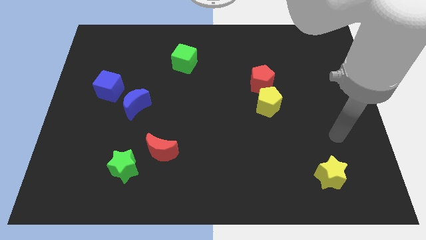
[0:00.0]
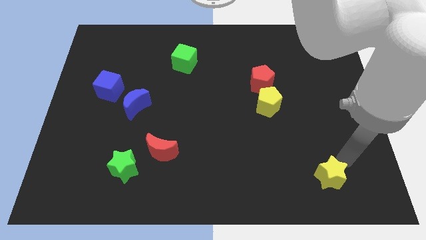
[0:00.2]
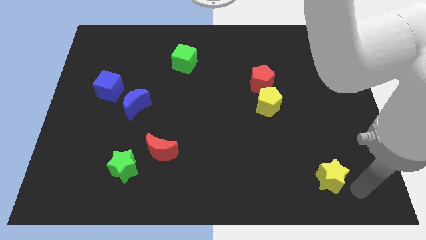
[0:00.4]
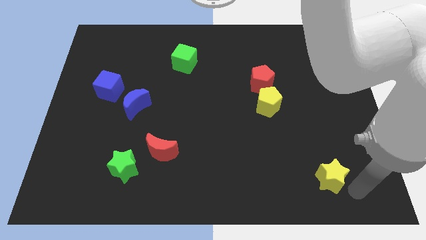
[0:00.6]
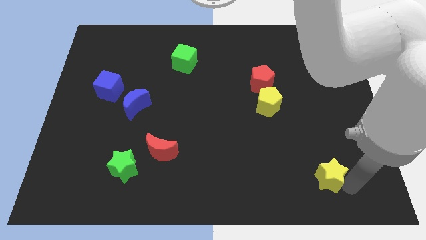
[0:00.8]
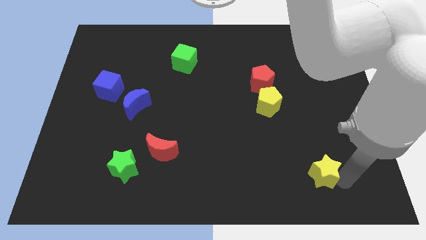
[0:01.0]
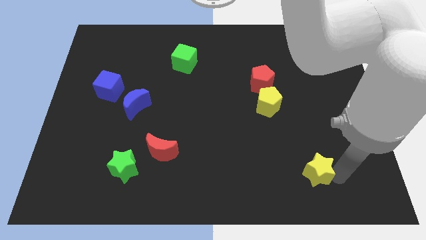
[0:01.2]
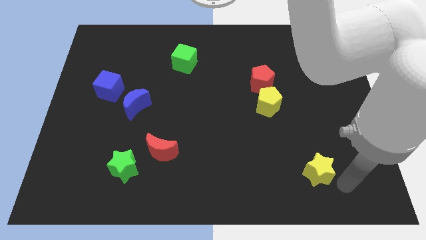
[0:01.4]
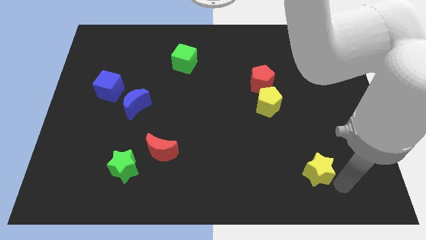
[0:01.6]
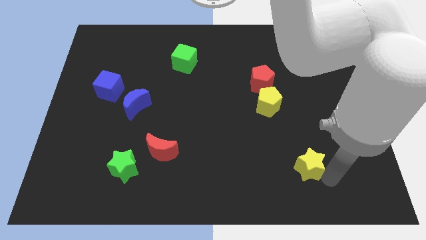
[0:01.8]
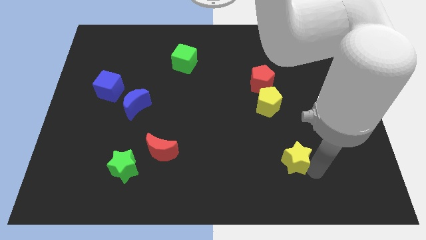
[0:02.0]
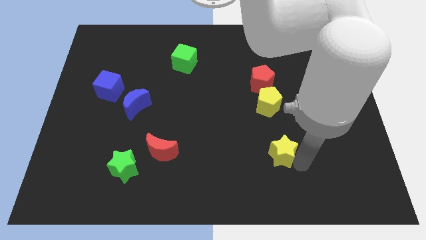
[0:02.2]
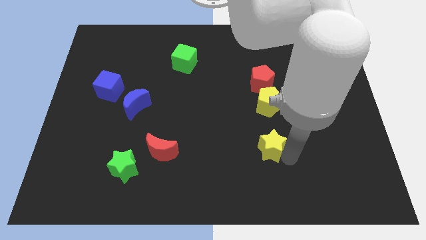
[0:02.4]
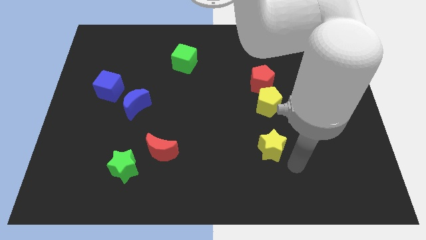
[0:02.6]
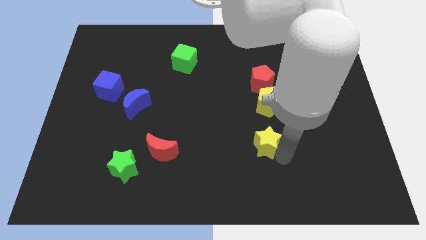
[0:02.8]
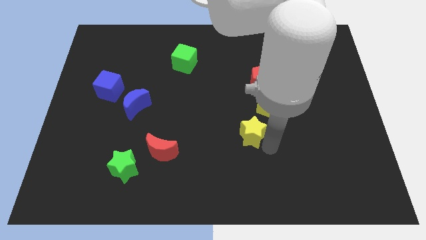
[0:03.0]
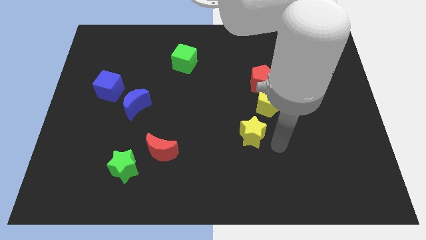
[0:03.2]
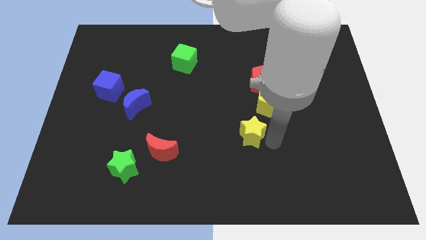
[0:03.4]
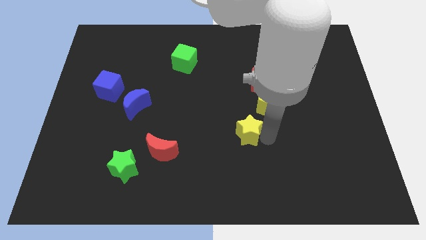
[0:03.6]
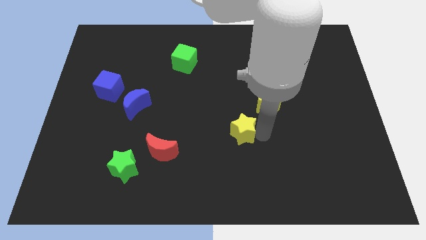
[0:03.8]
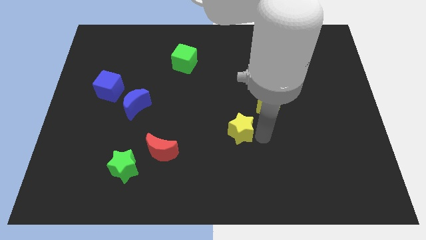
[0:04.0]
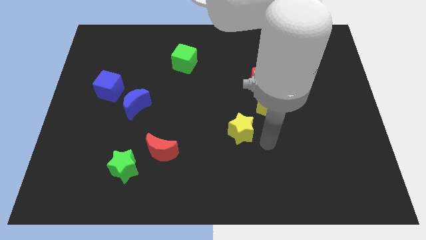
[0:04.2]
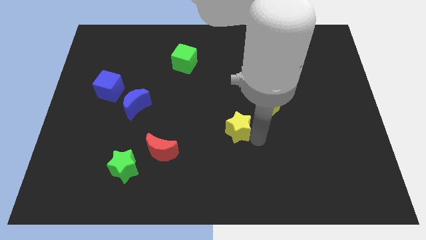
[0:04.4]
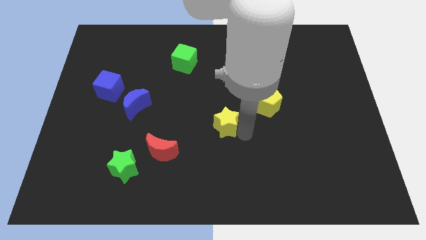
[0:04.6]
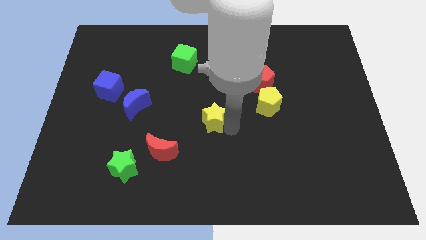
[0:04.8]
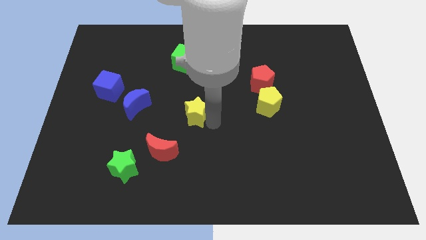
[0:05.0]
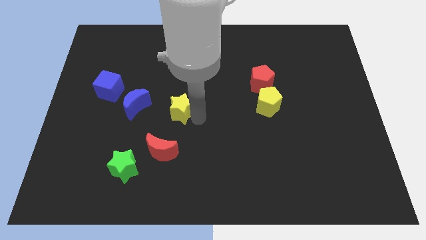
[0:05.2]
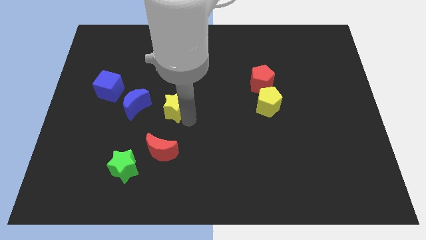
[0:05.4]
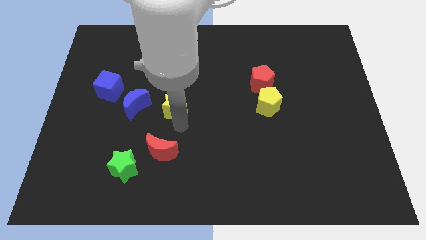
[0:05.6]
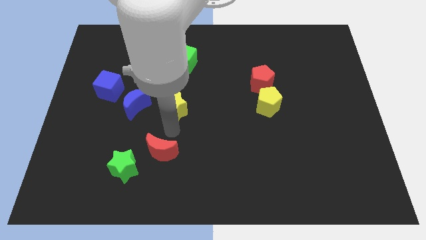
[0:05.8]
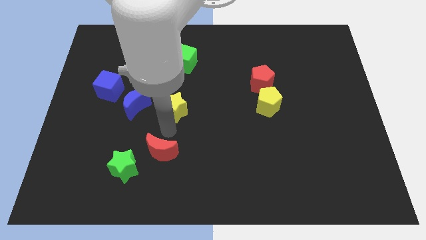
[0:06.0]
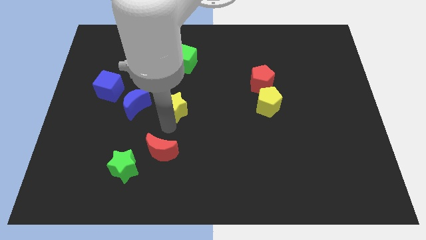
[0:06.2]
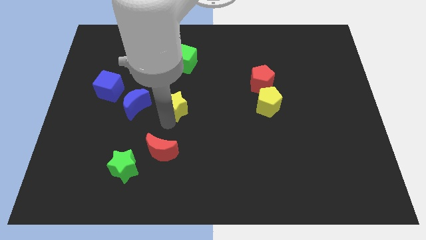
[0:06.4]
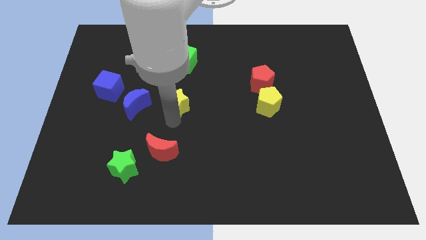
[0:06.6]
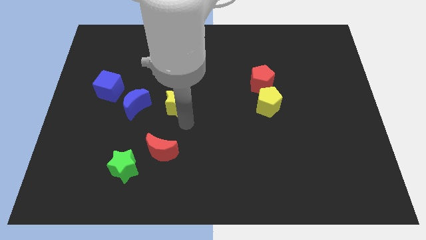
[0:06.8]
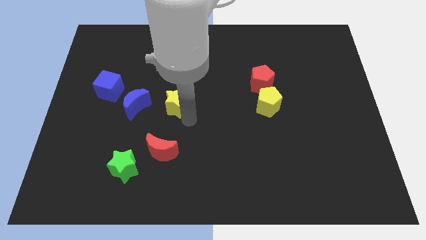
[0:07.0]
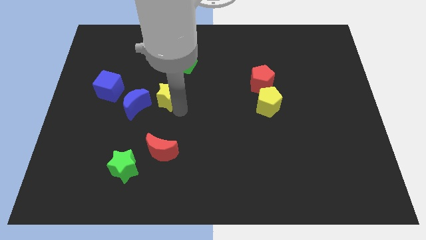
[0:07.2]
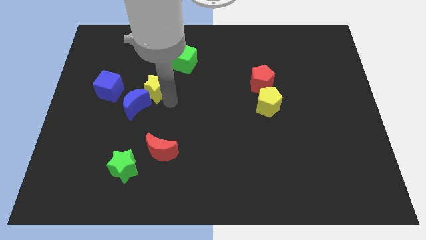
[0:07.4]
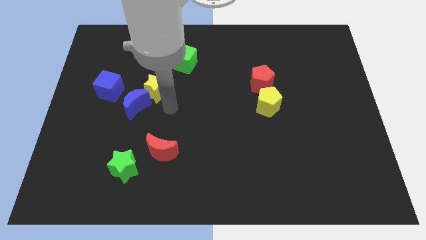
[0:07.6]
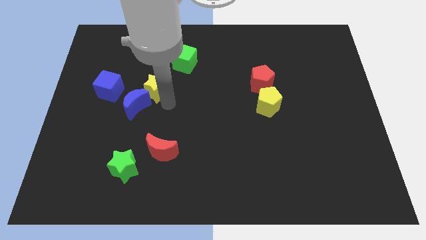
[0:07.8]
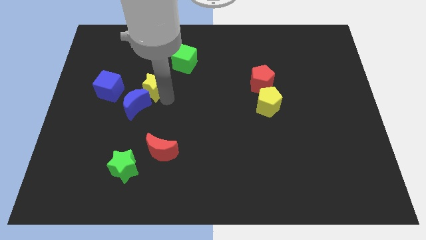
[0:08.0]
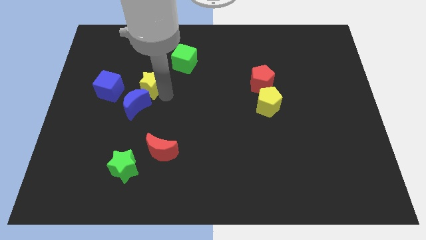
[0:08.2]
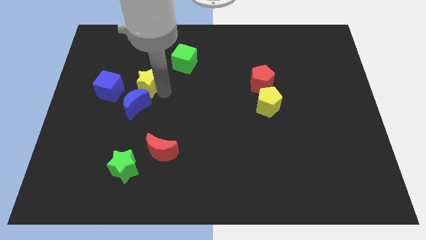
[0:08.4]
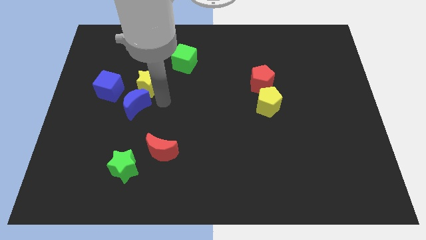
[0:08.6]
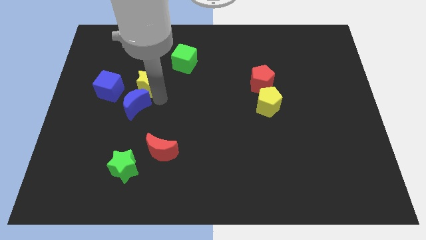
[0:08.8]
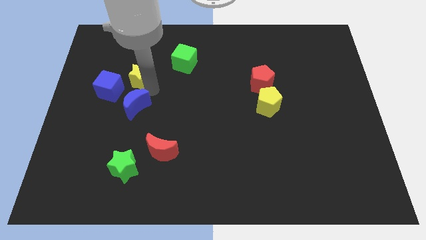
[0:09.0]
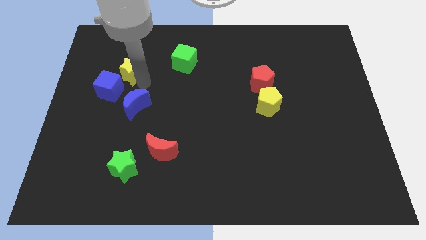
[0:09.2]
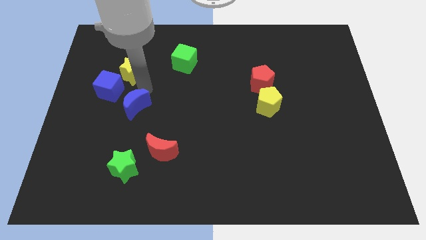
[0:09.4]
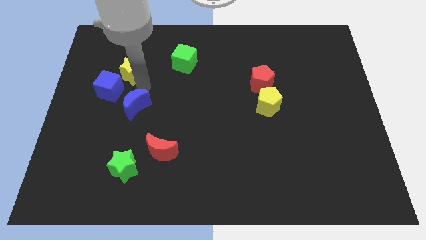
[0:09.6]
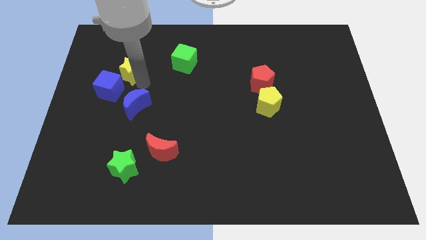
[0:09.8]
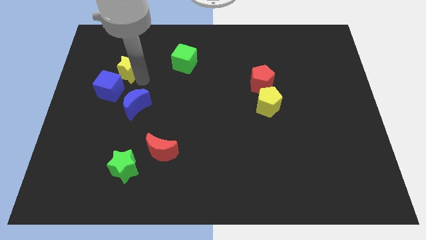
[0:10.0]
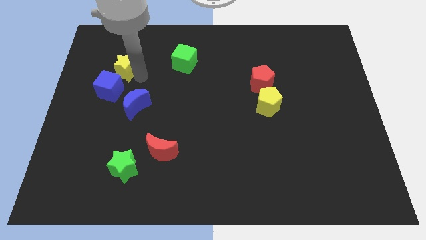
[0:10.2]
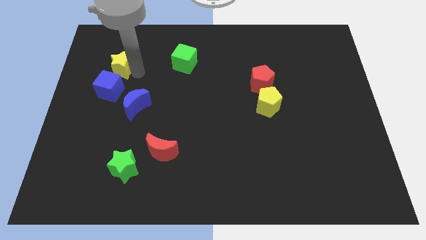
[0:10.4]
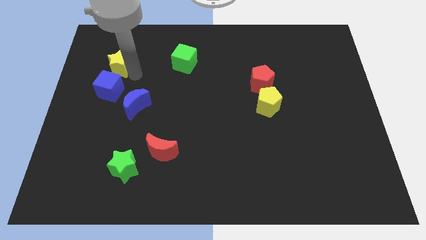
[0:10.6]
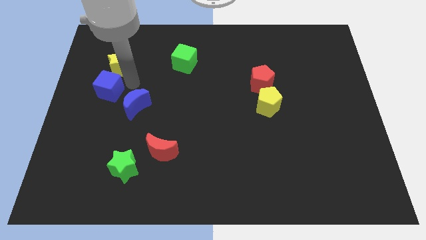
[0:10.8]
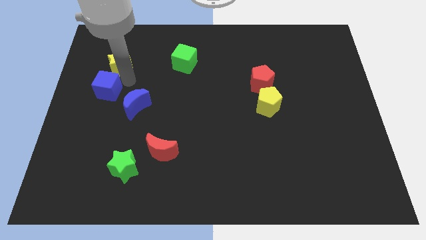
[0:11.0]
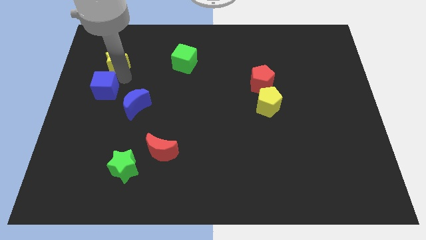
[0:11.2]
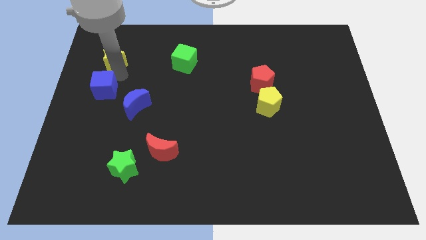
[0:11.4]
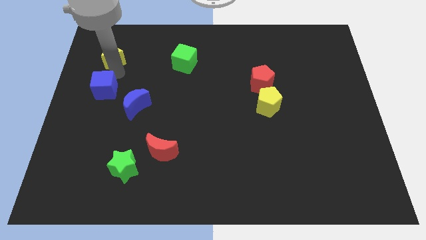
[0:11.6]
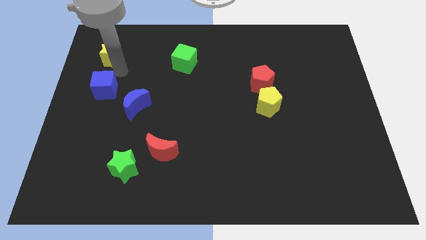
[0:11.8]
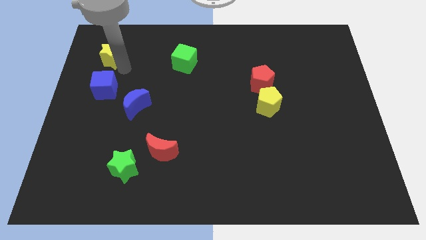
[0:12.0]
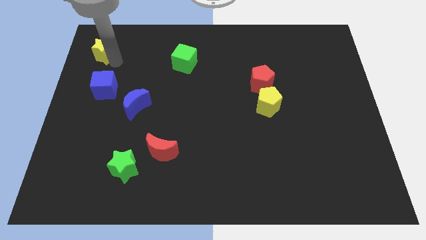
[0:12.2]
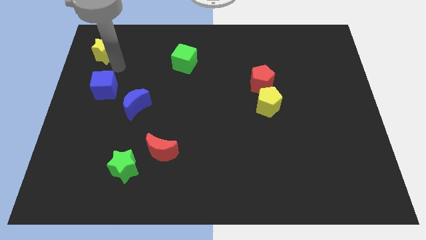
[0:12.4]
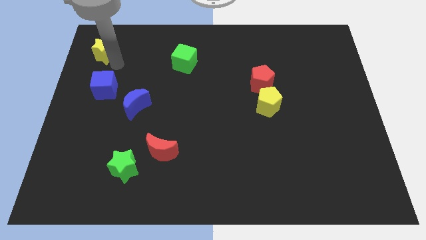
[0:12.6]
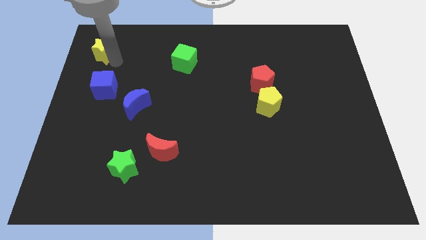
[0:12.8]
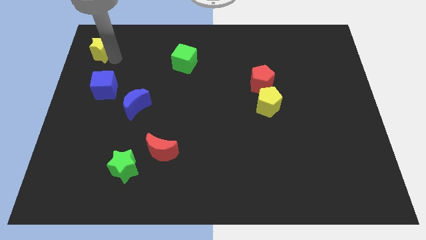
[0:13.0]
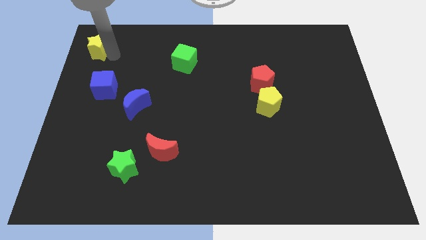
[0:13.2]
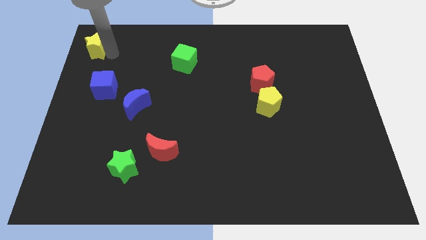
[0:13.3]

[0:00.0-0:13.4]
move the yellow star to the upper left corner

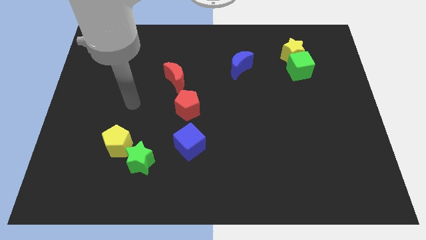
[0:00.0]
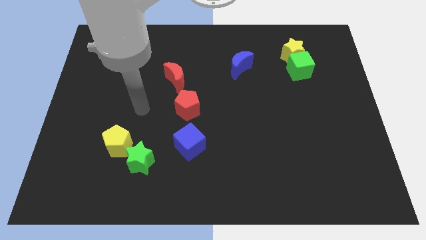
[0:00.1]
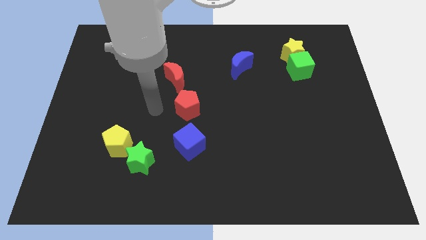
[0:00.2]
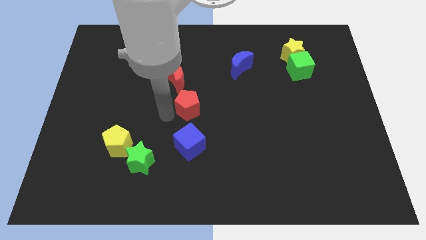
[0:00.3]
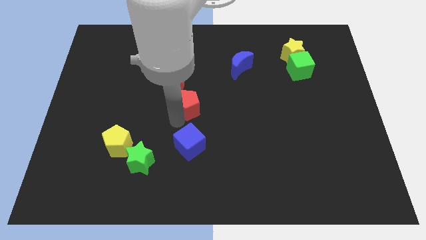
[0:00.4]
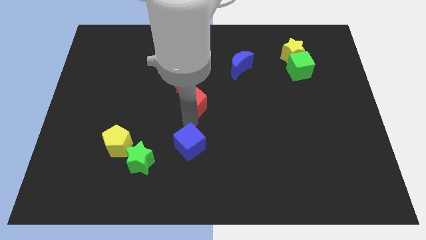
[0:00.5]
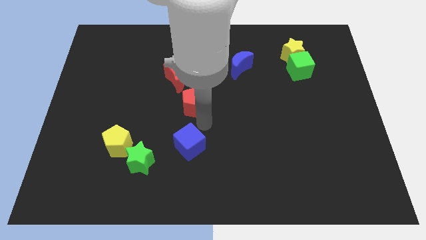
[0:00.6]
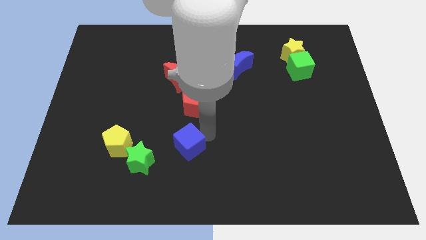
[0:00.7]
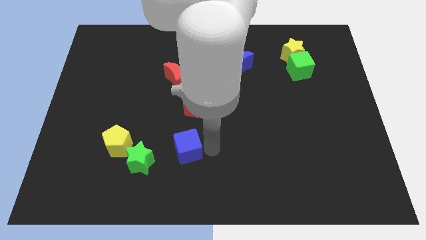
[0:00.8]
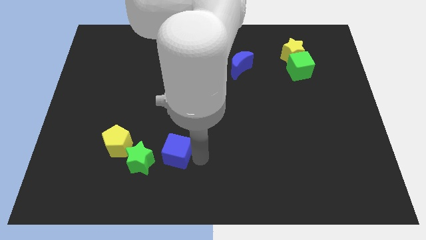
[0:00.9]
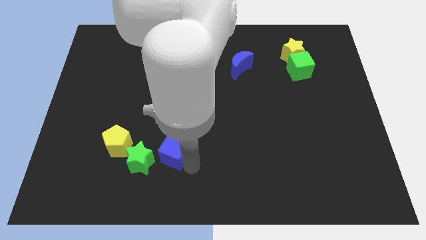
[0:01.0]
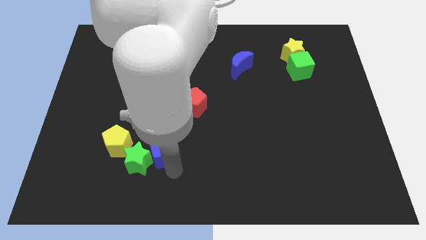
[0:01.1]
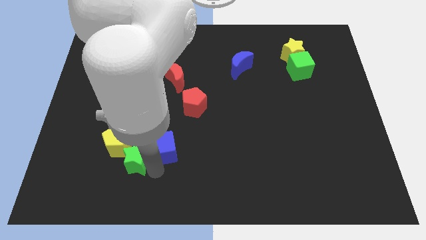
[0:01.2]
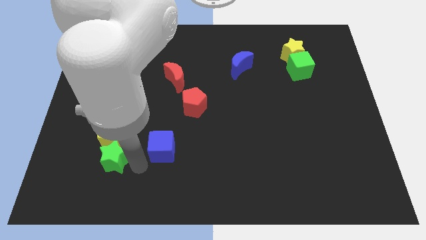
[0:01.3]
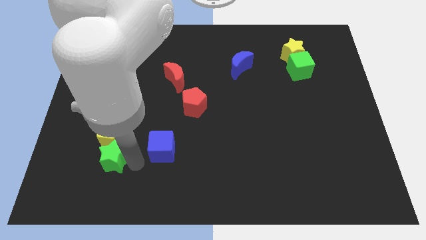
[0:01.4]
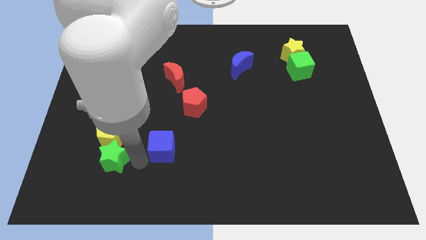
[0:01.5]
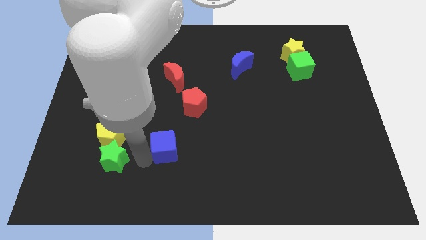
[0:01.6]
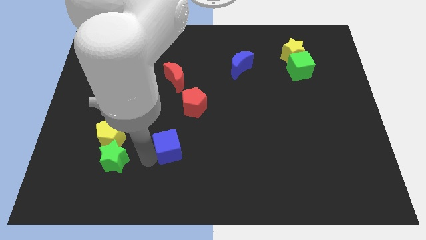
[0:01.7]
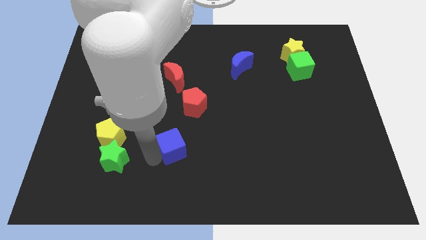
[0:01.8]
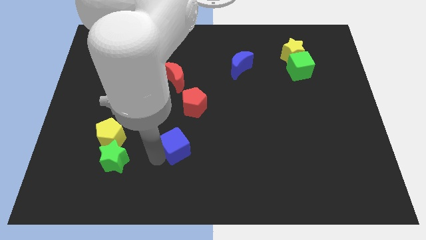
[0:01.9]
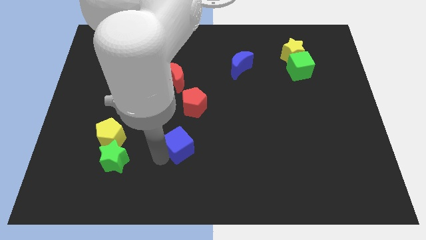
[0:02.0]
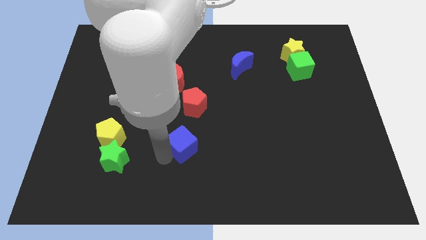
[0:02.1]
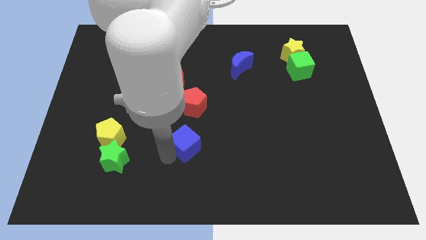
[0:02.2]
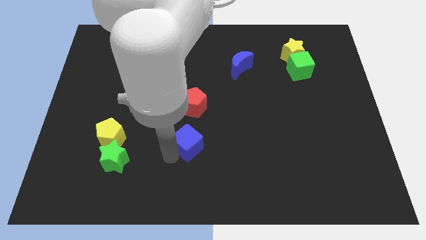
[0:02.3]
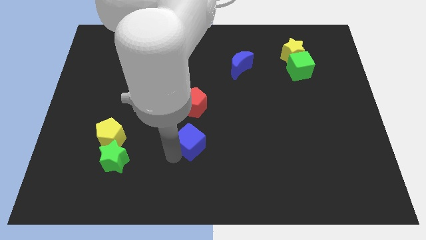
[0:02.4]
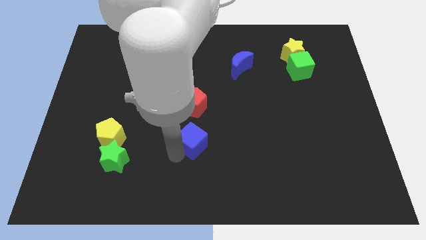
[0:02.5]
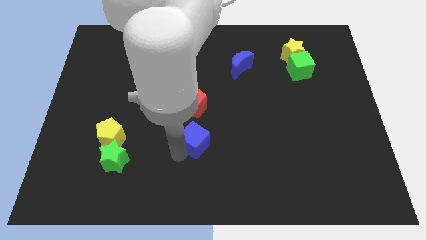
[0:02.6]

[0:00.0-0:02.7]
slide the blue cube to the center of the board
